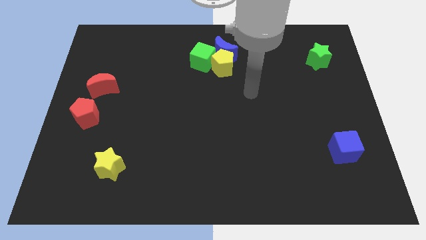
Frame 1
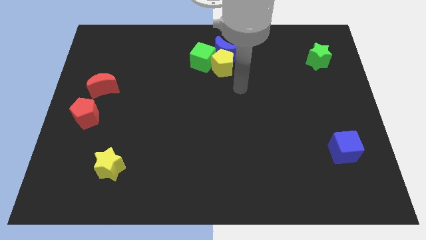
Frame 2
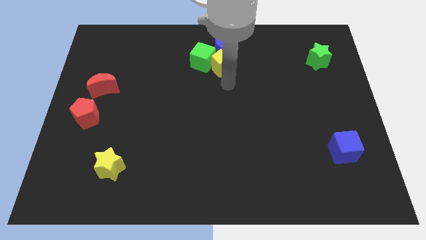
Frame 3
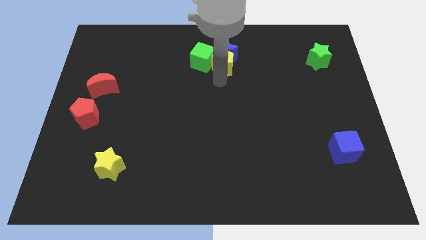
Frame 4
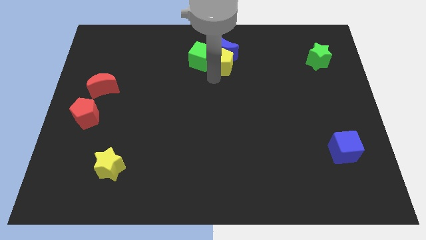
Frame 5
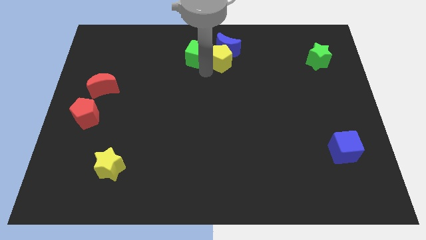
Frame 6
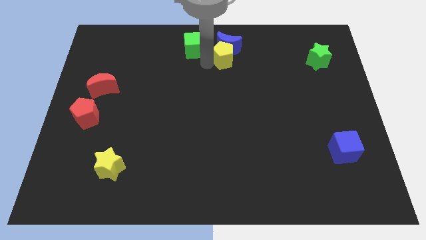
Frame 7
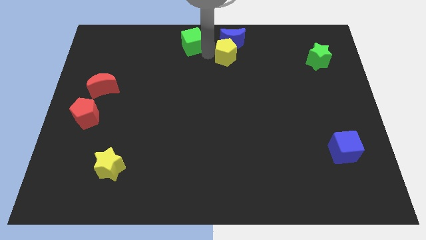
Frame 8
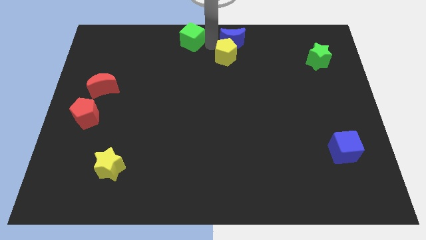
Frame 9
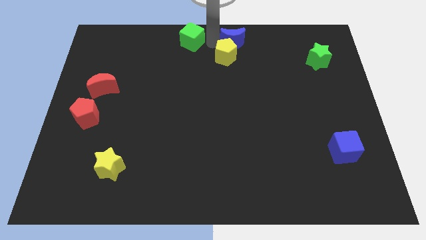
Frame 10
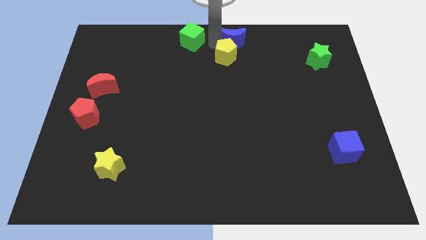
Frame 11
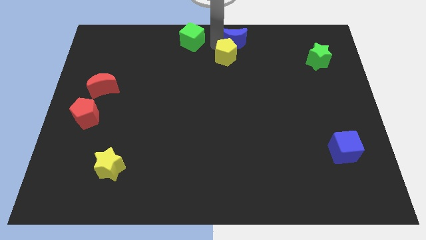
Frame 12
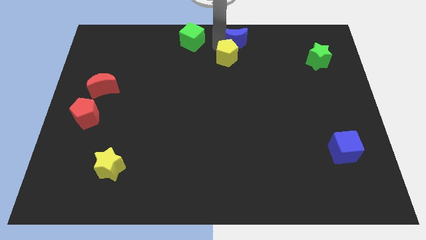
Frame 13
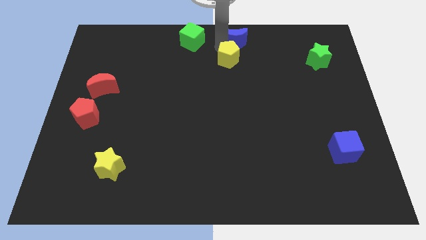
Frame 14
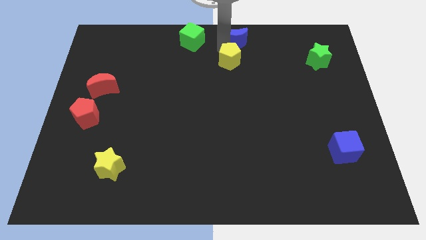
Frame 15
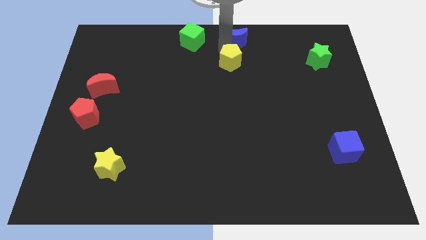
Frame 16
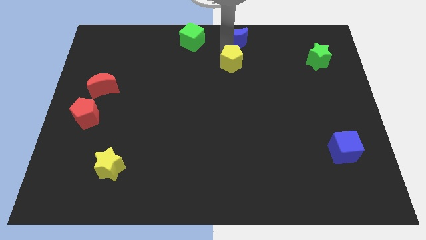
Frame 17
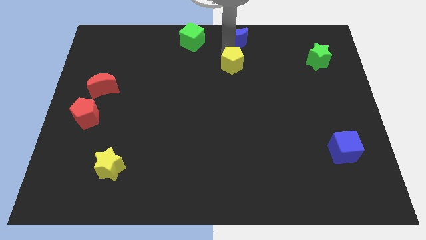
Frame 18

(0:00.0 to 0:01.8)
move the yellow pentagon away from the blue moon and green cube

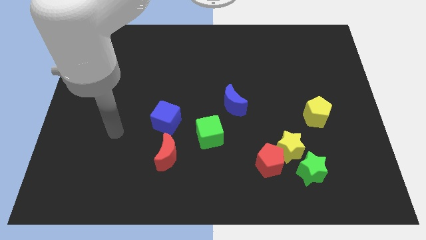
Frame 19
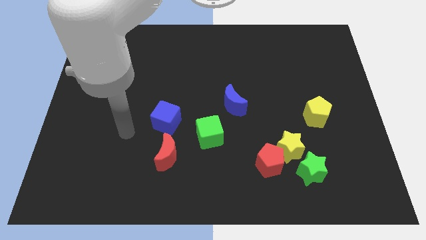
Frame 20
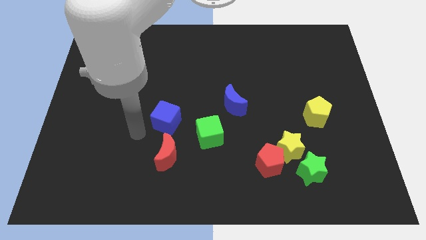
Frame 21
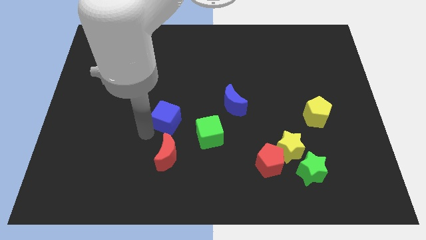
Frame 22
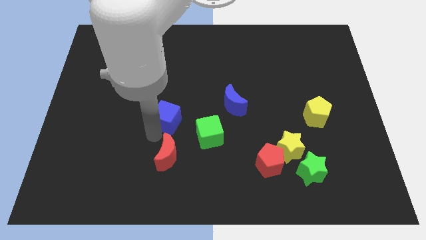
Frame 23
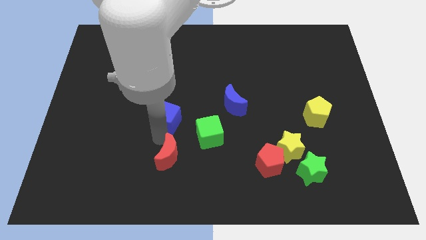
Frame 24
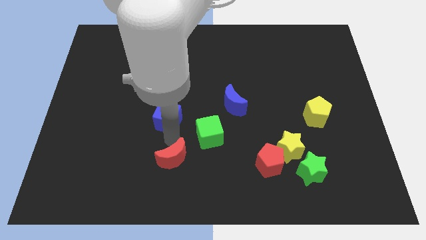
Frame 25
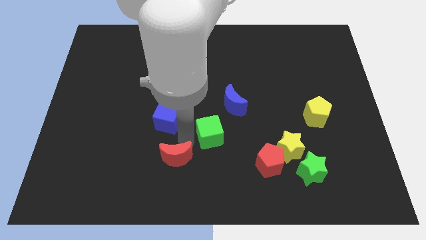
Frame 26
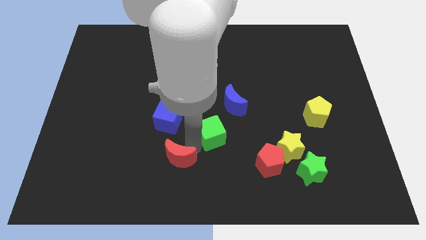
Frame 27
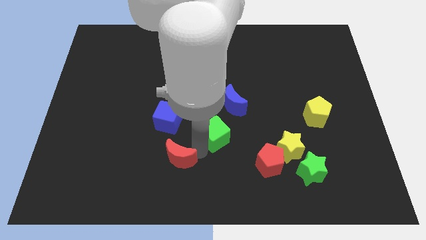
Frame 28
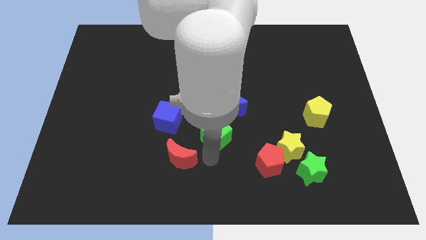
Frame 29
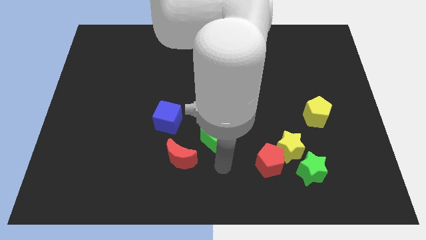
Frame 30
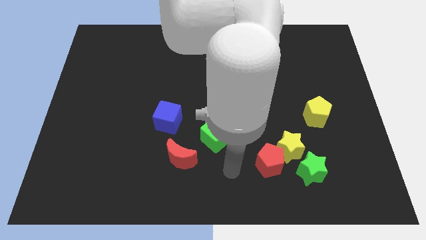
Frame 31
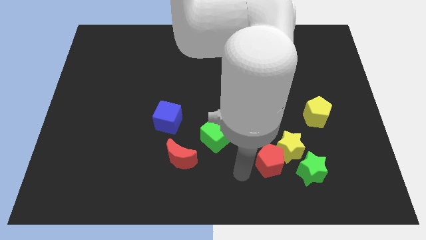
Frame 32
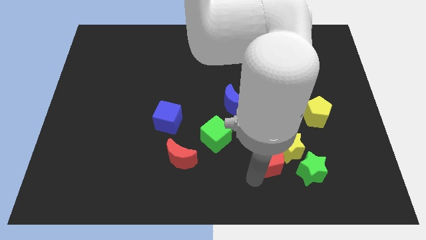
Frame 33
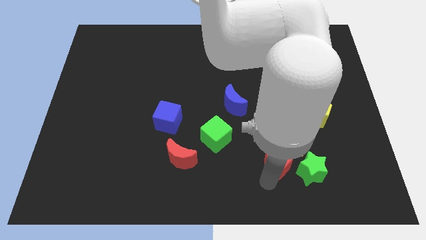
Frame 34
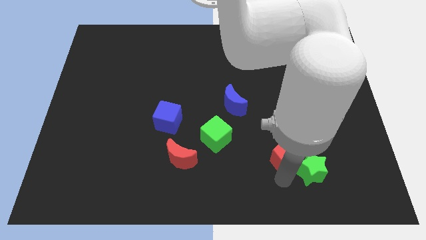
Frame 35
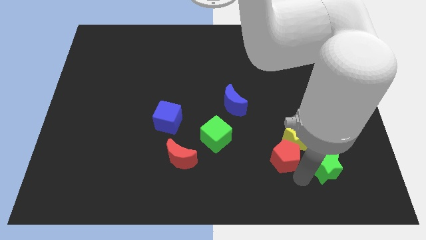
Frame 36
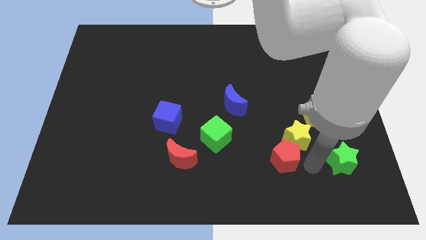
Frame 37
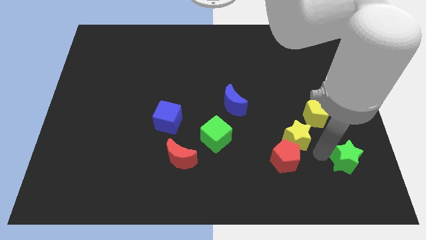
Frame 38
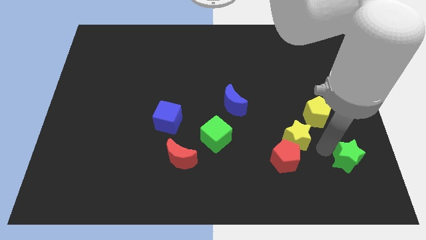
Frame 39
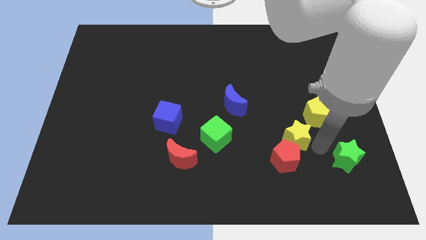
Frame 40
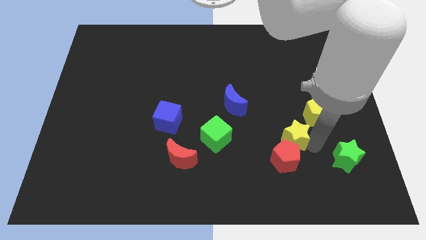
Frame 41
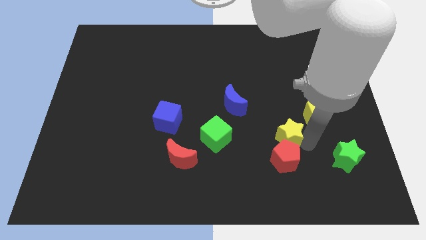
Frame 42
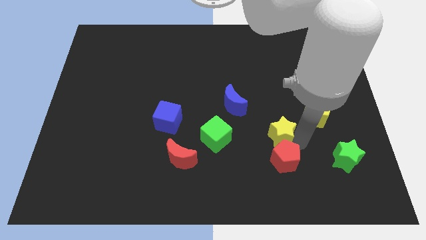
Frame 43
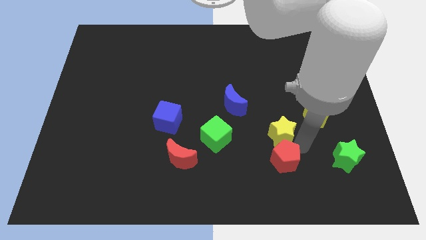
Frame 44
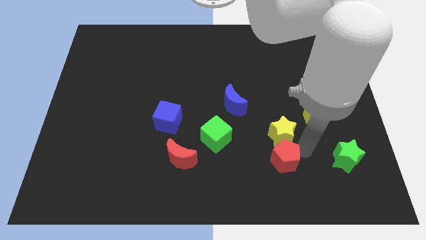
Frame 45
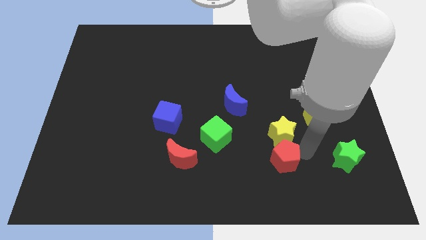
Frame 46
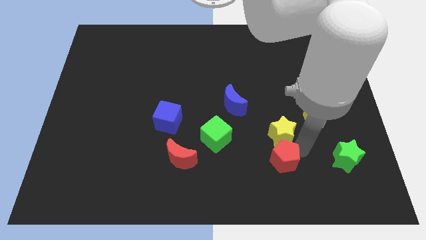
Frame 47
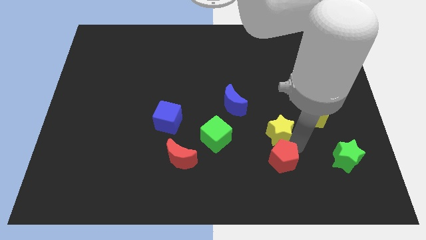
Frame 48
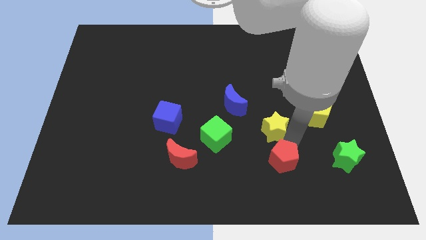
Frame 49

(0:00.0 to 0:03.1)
pull the yellow star apart from the red pentagon and green star

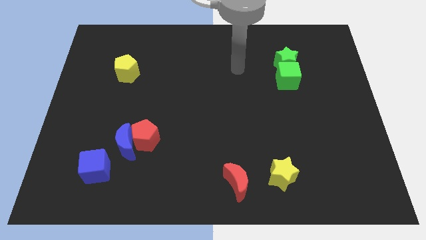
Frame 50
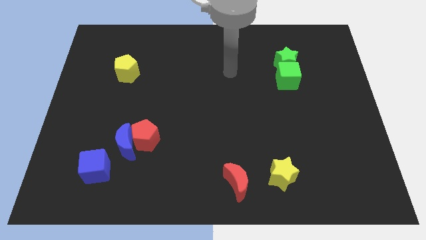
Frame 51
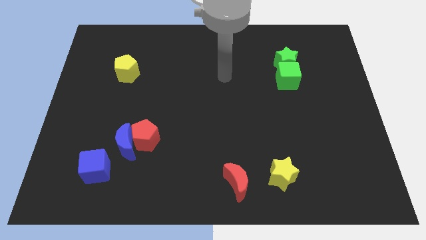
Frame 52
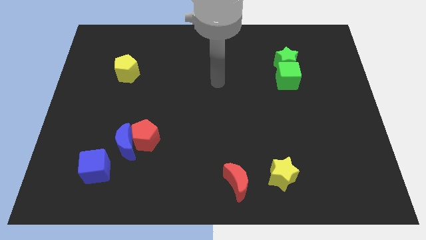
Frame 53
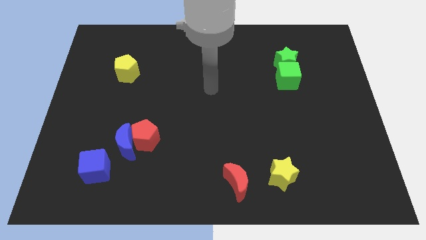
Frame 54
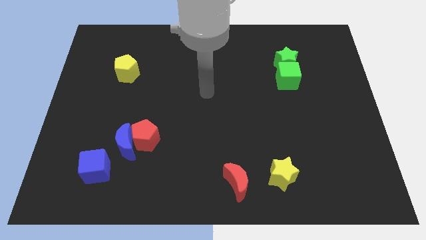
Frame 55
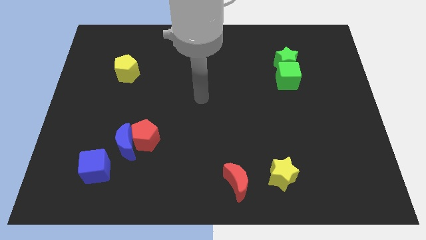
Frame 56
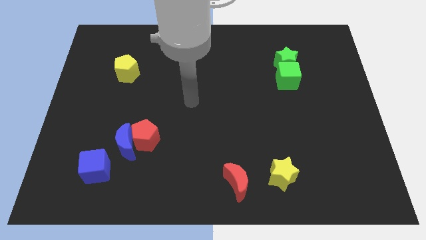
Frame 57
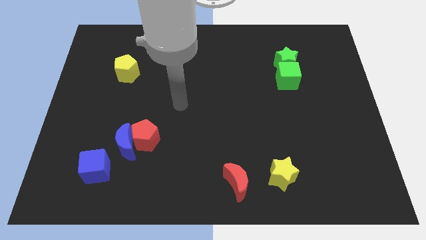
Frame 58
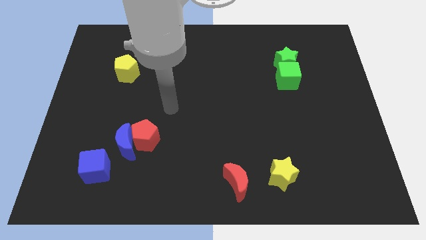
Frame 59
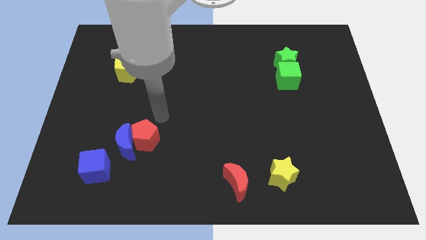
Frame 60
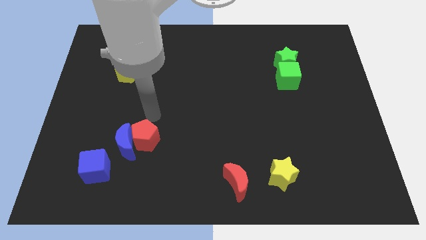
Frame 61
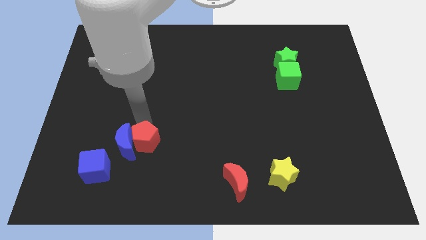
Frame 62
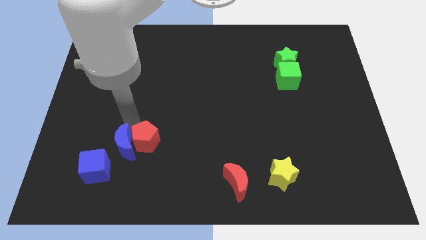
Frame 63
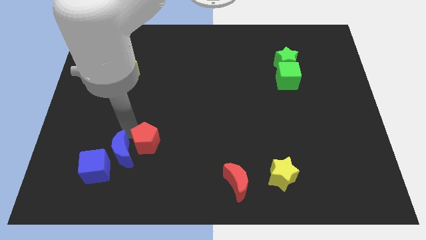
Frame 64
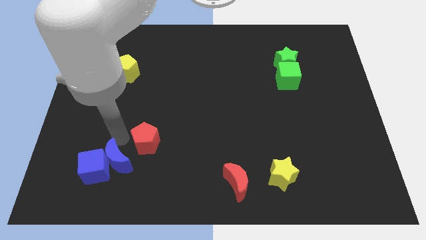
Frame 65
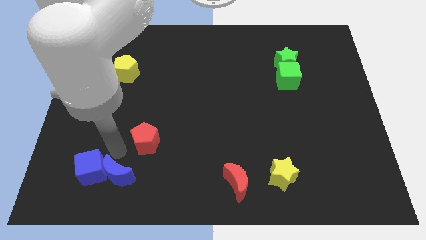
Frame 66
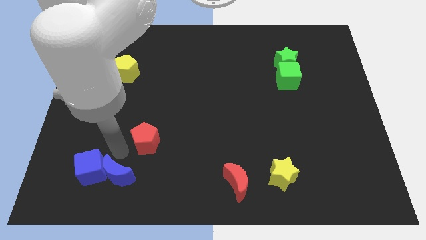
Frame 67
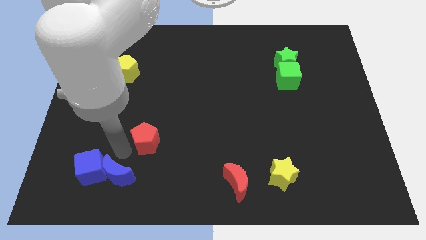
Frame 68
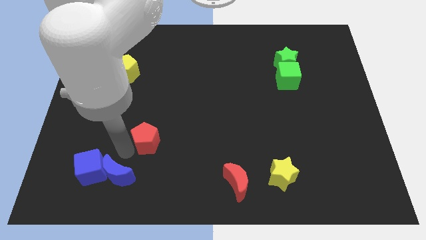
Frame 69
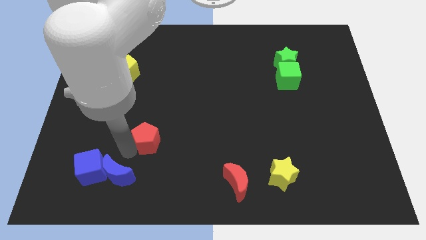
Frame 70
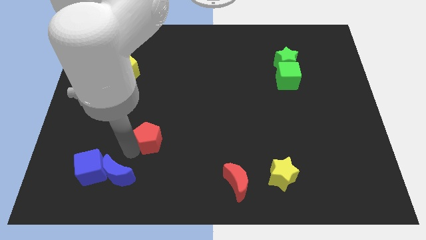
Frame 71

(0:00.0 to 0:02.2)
pull the red pentagon apart from the blue moon

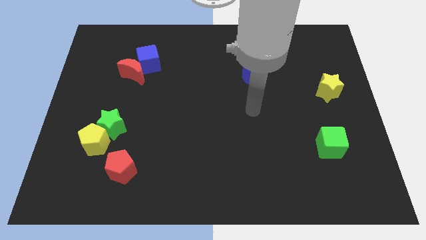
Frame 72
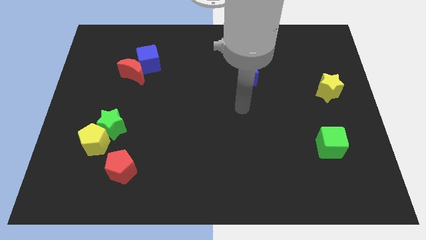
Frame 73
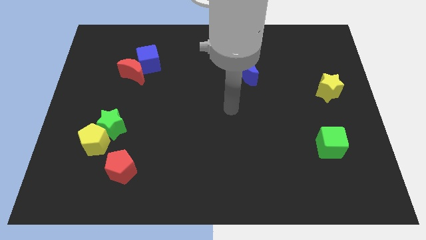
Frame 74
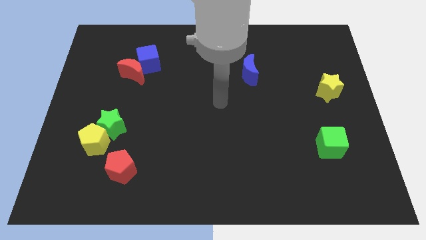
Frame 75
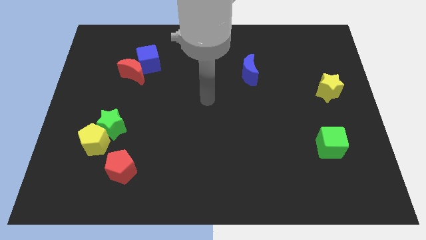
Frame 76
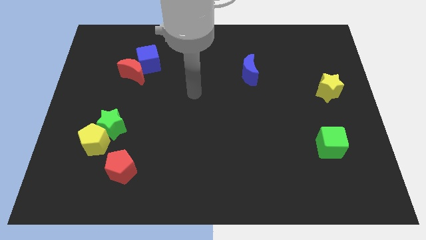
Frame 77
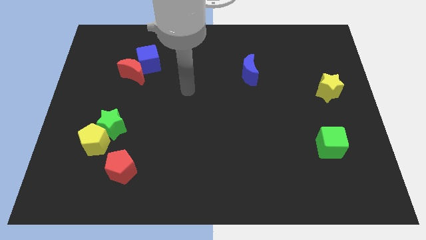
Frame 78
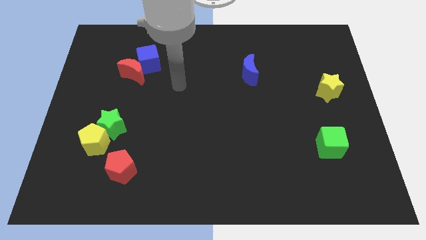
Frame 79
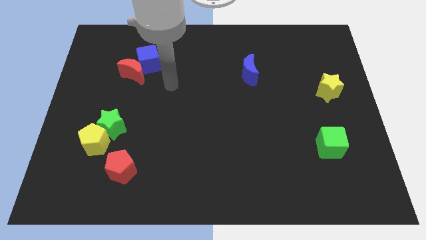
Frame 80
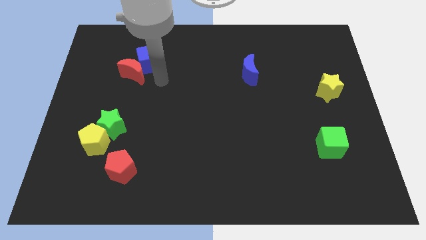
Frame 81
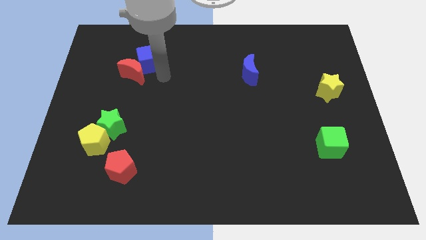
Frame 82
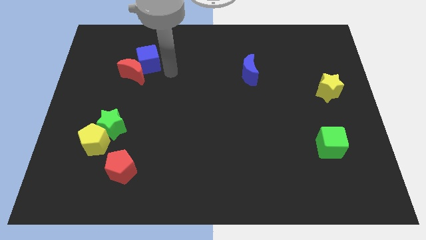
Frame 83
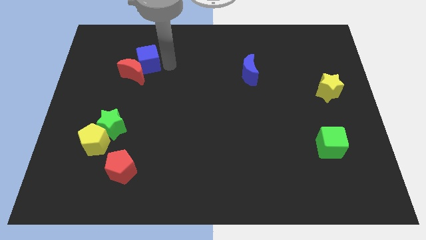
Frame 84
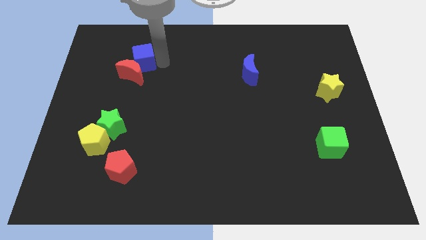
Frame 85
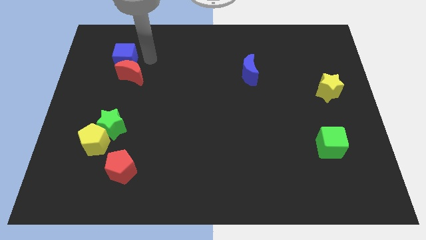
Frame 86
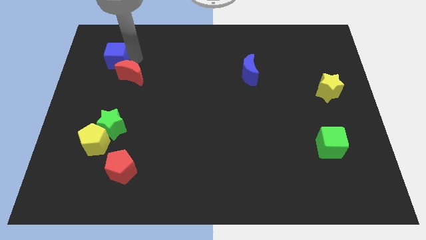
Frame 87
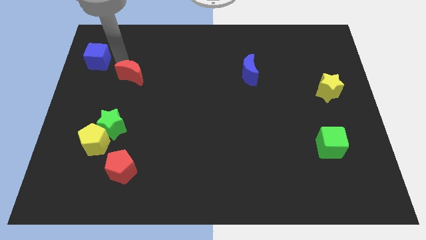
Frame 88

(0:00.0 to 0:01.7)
pull the red moon apart from the blue cube

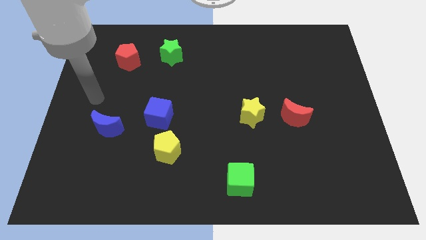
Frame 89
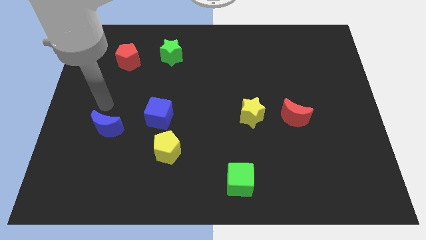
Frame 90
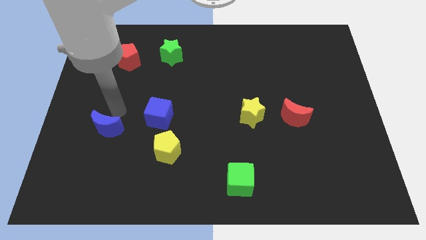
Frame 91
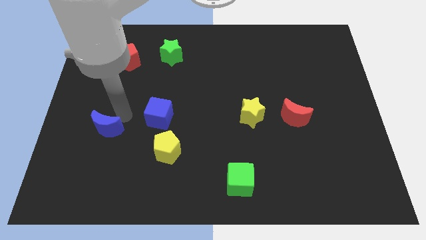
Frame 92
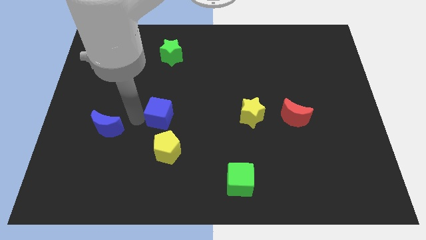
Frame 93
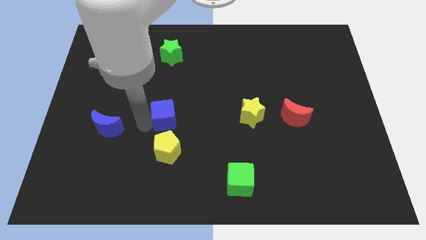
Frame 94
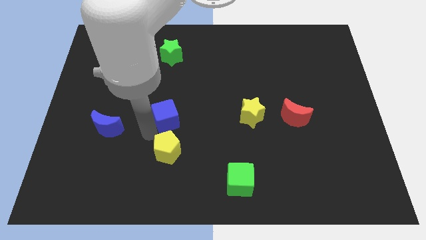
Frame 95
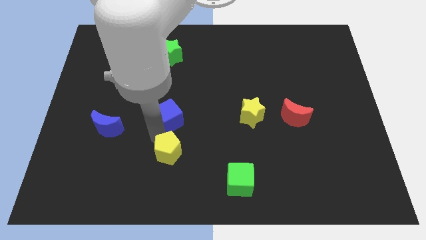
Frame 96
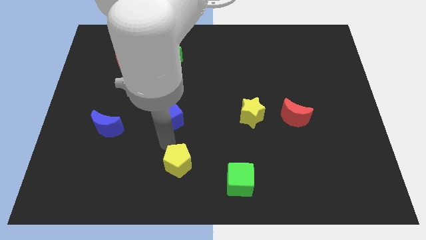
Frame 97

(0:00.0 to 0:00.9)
separate the blue cube from the yellow pentagon
